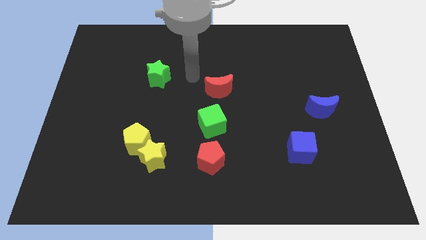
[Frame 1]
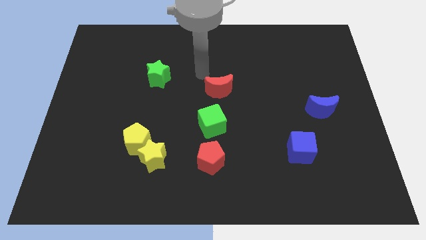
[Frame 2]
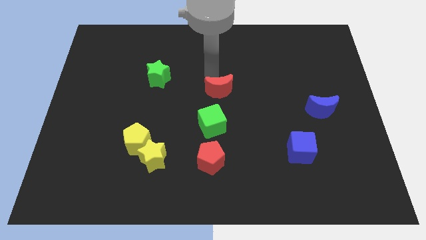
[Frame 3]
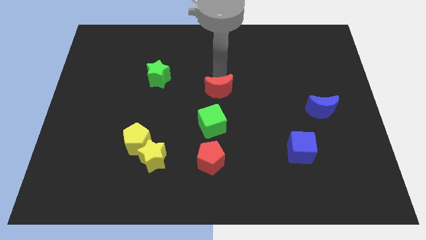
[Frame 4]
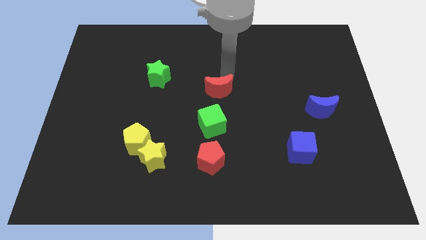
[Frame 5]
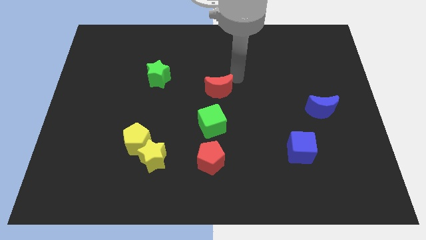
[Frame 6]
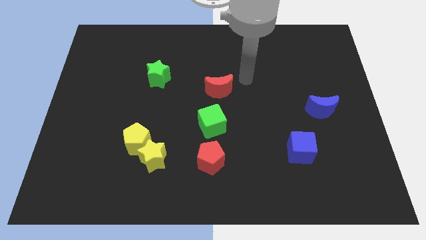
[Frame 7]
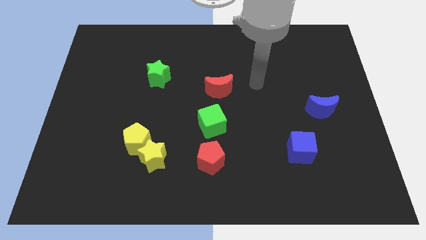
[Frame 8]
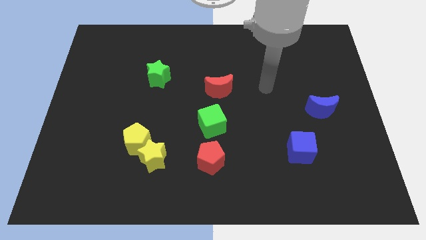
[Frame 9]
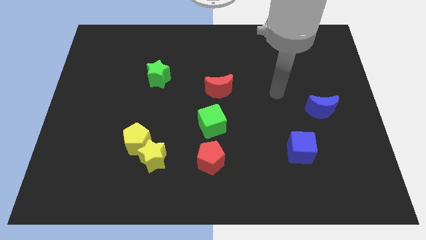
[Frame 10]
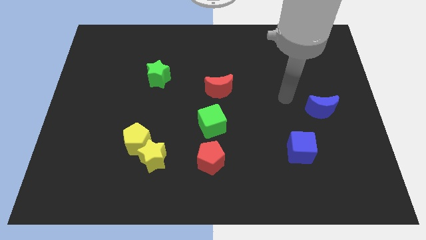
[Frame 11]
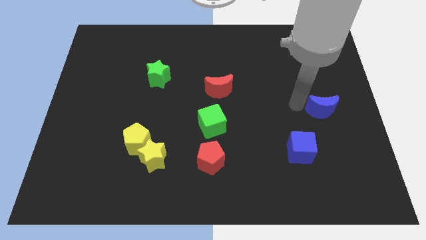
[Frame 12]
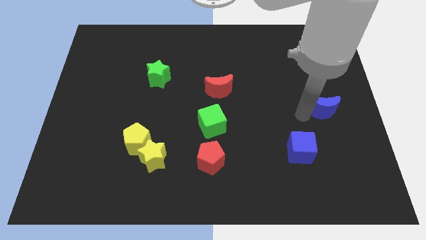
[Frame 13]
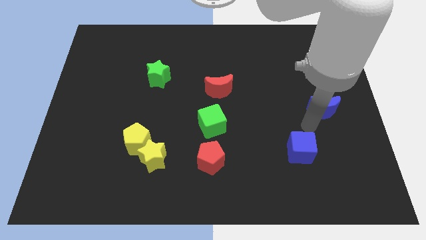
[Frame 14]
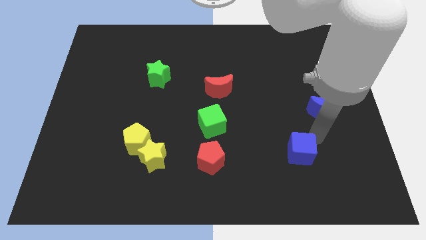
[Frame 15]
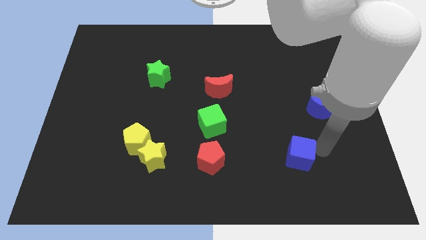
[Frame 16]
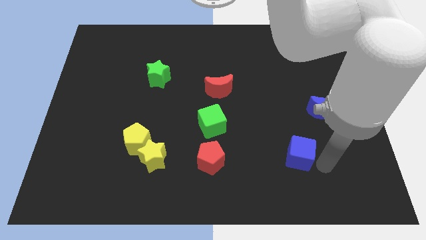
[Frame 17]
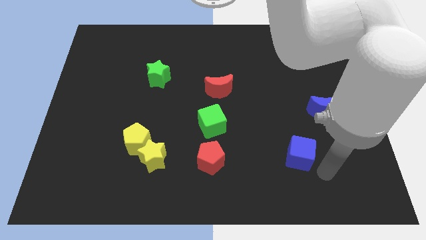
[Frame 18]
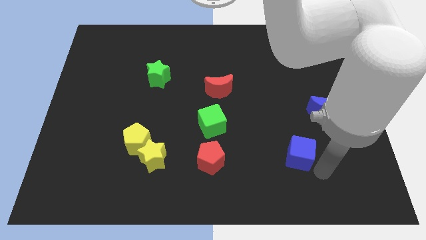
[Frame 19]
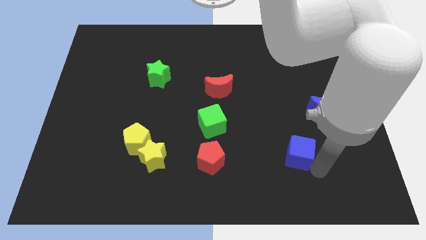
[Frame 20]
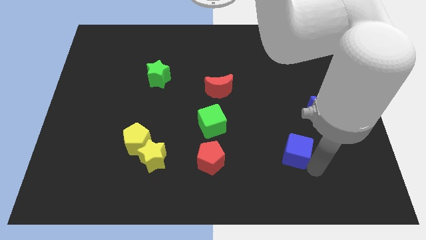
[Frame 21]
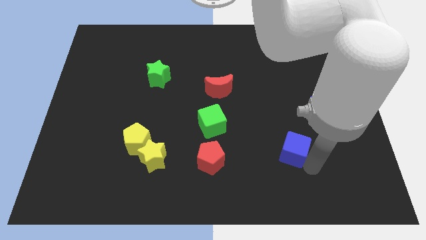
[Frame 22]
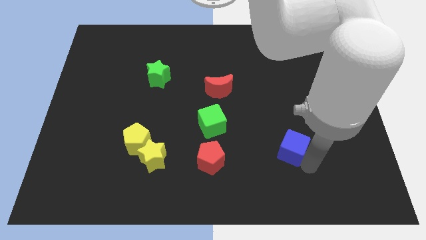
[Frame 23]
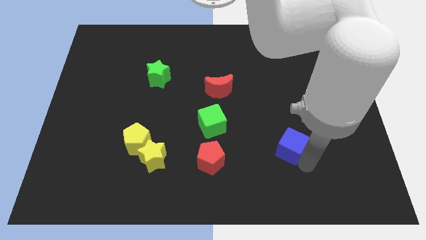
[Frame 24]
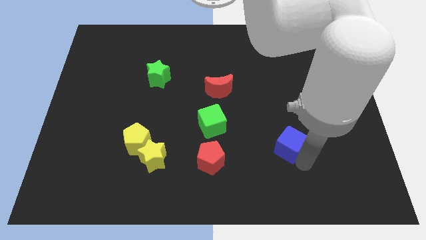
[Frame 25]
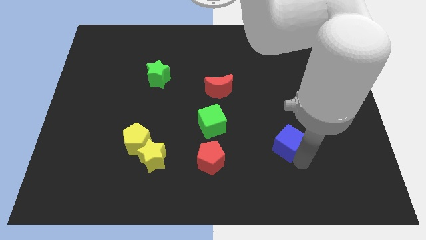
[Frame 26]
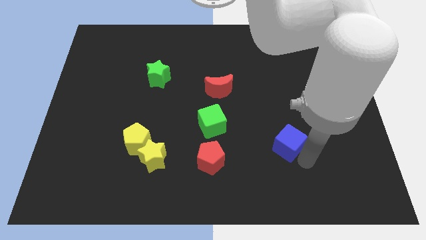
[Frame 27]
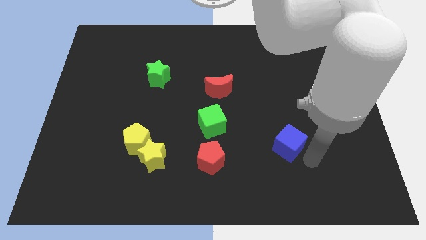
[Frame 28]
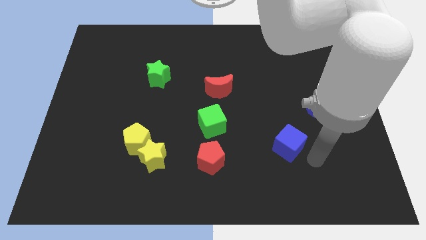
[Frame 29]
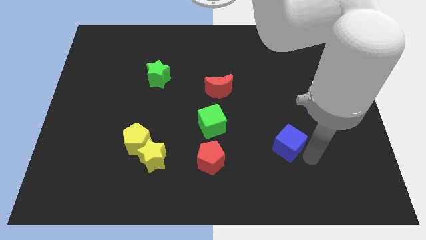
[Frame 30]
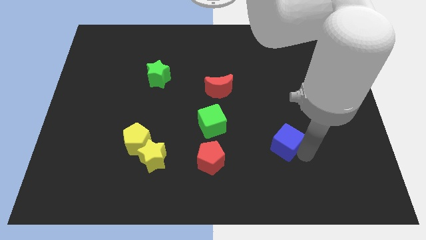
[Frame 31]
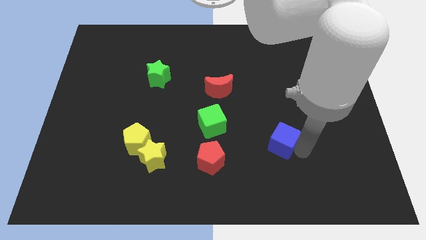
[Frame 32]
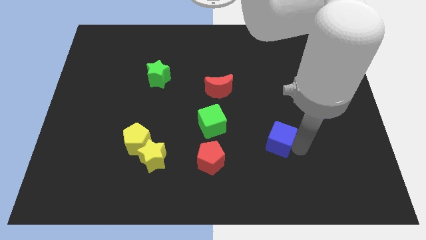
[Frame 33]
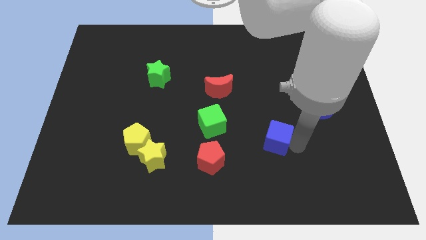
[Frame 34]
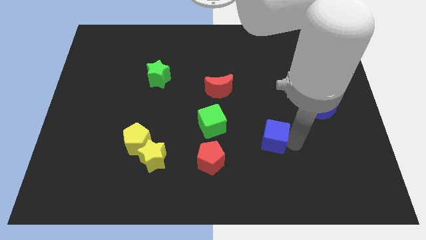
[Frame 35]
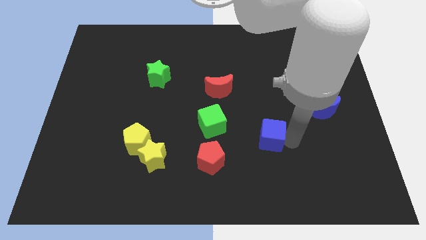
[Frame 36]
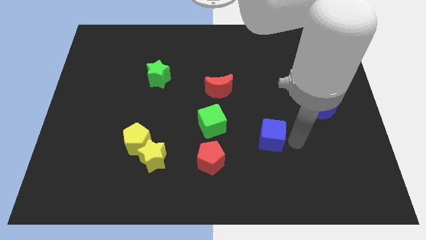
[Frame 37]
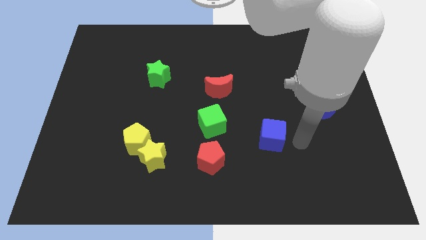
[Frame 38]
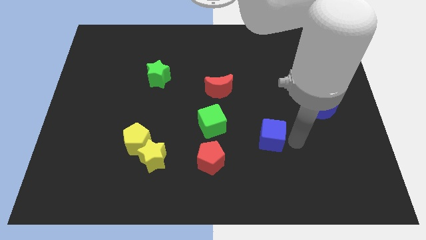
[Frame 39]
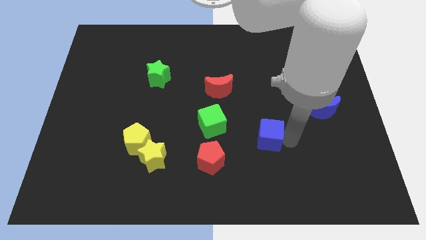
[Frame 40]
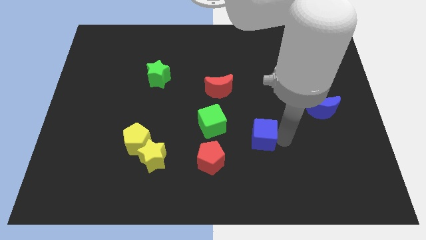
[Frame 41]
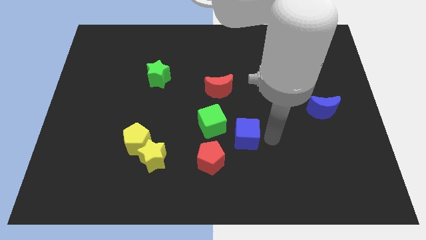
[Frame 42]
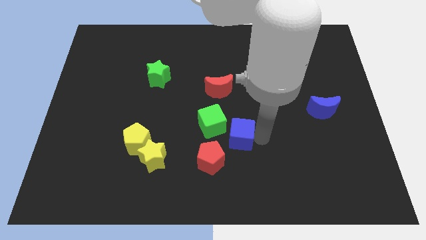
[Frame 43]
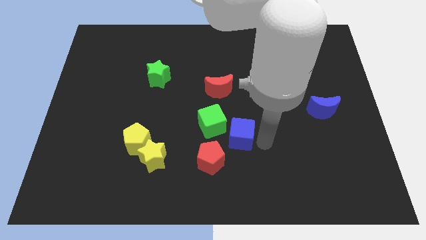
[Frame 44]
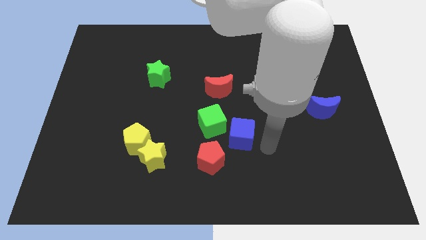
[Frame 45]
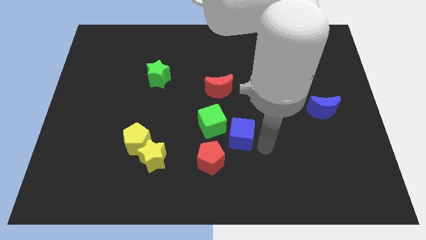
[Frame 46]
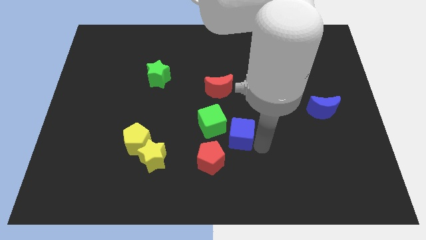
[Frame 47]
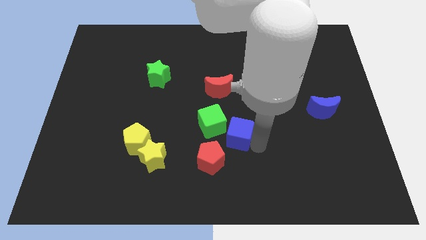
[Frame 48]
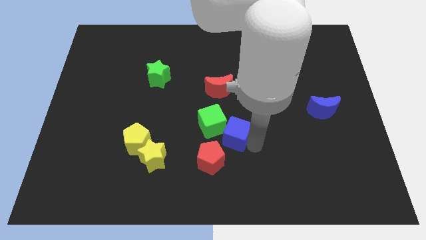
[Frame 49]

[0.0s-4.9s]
move the blue cube next to the green cube

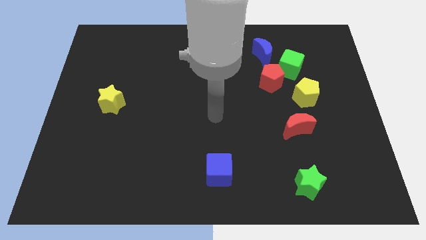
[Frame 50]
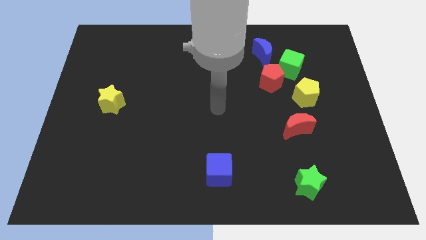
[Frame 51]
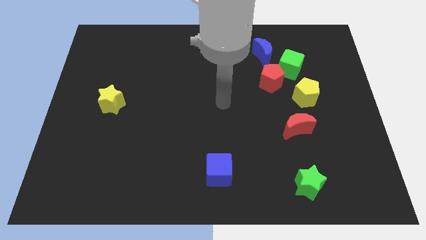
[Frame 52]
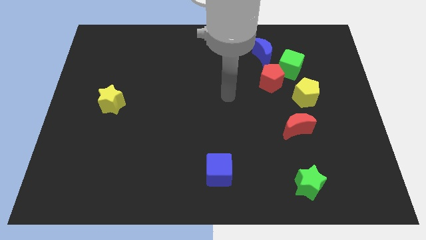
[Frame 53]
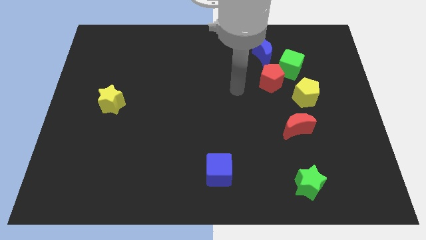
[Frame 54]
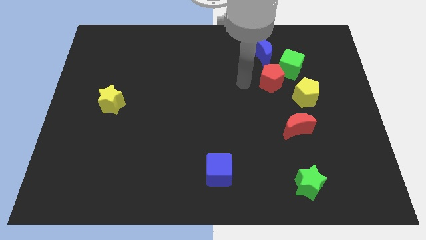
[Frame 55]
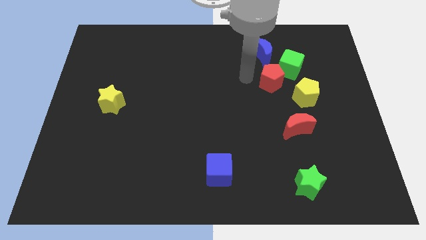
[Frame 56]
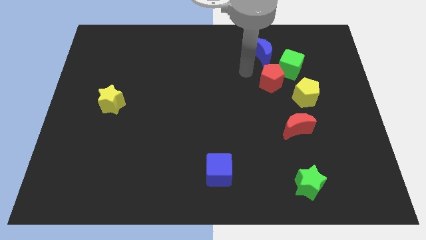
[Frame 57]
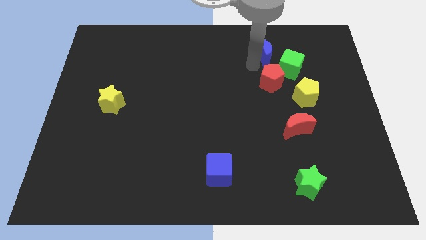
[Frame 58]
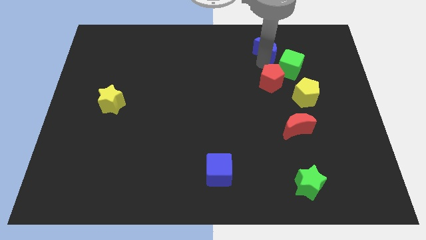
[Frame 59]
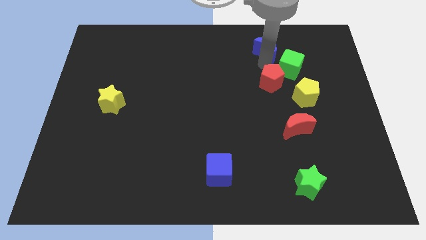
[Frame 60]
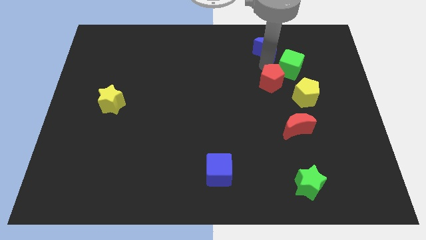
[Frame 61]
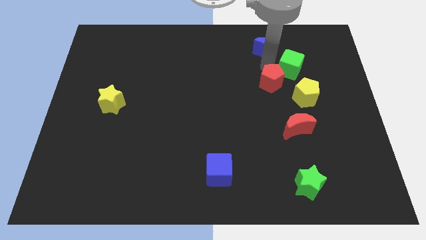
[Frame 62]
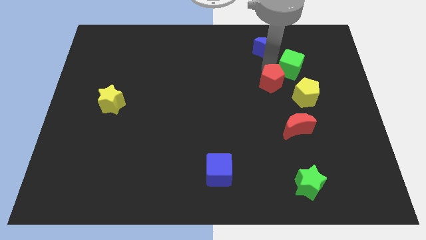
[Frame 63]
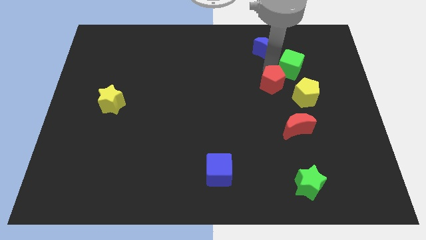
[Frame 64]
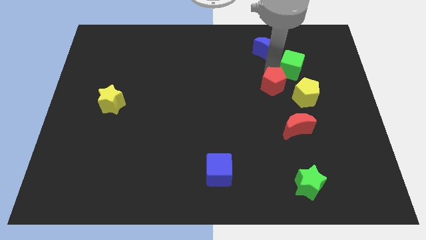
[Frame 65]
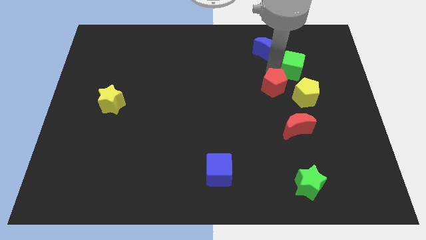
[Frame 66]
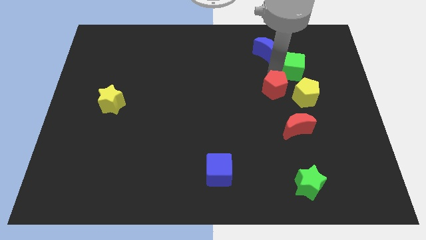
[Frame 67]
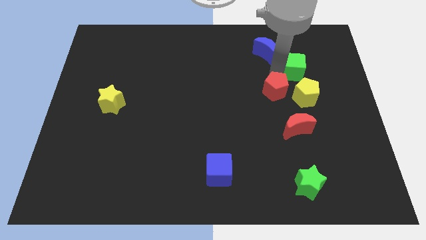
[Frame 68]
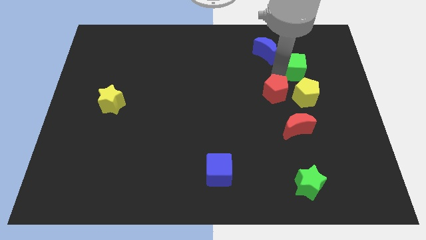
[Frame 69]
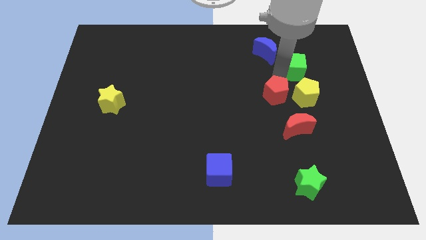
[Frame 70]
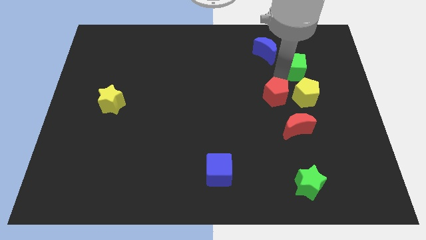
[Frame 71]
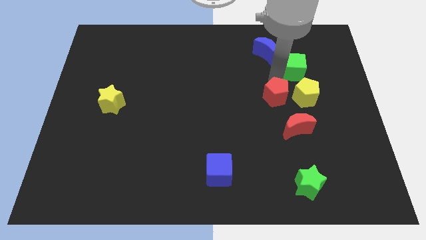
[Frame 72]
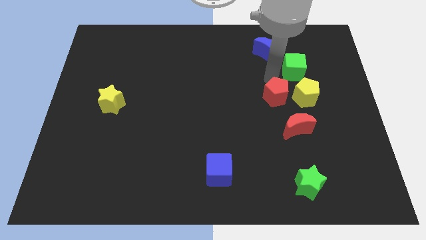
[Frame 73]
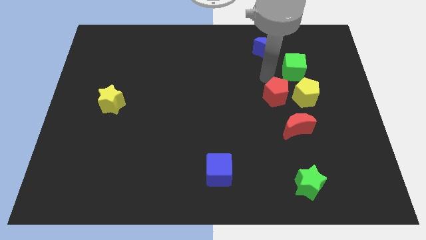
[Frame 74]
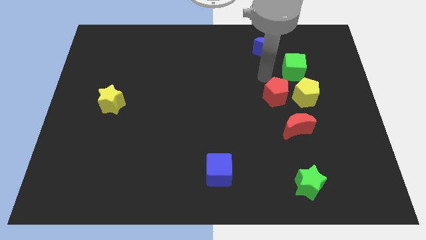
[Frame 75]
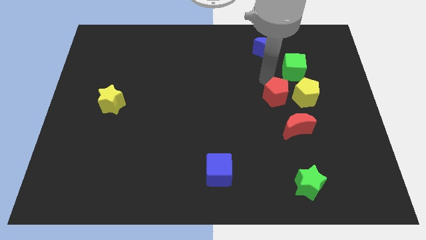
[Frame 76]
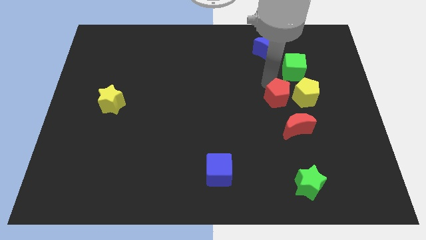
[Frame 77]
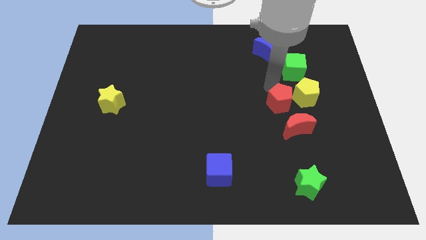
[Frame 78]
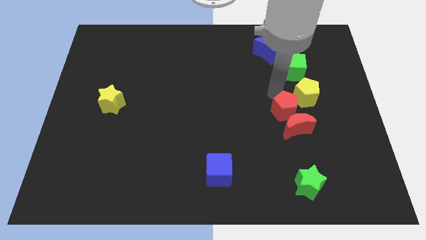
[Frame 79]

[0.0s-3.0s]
put the red pentagon towards the red moon
